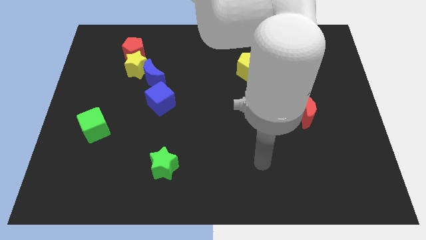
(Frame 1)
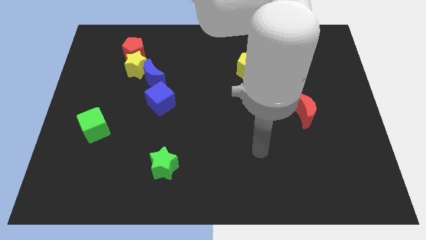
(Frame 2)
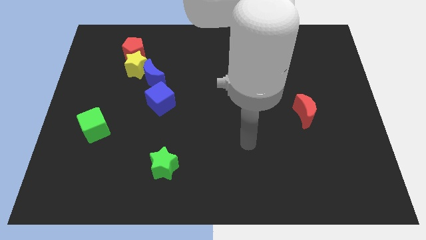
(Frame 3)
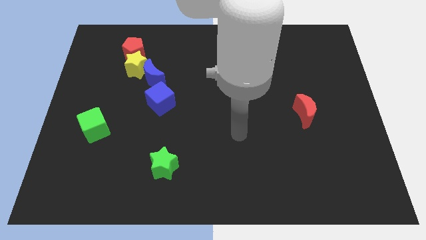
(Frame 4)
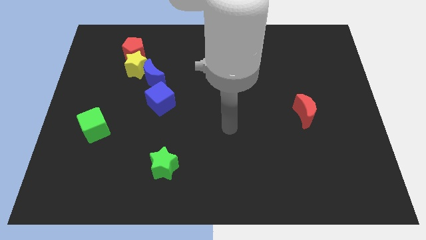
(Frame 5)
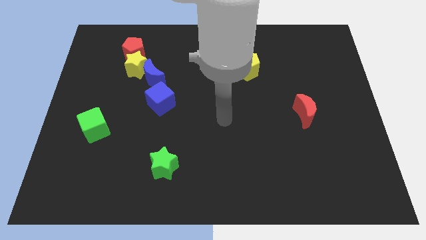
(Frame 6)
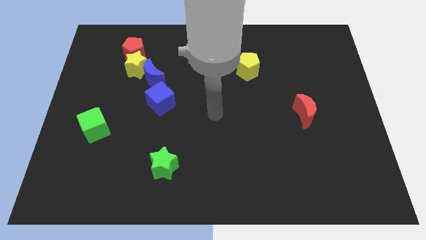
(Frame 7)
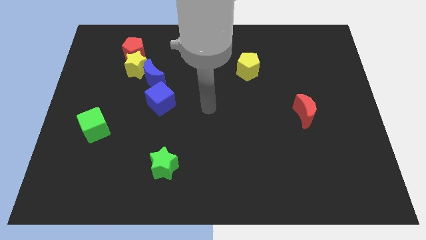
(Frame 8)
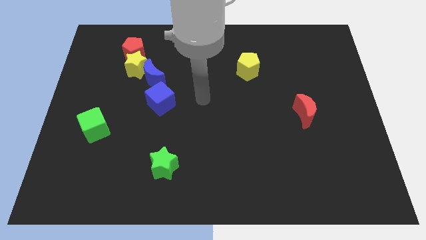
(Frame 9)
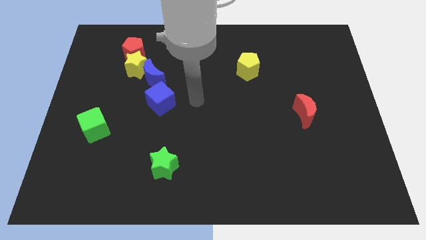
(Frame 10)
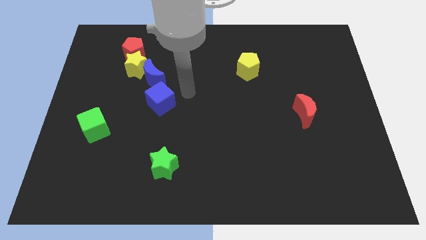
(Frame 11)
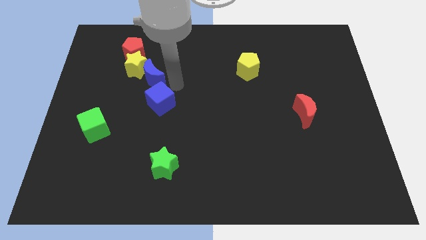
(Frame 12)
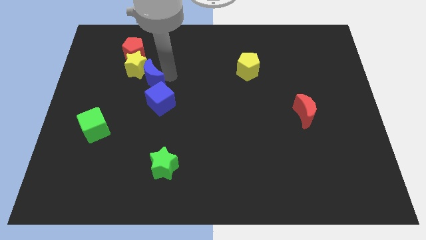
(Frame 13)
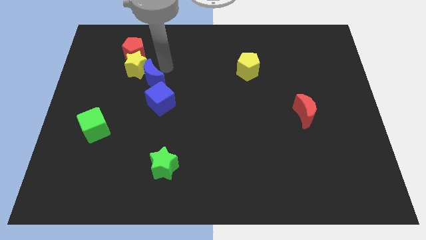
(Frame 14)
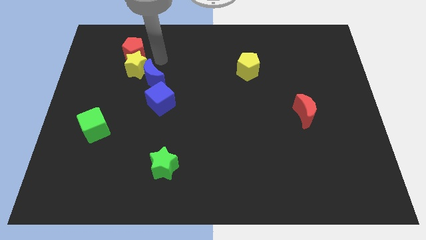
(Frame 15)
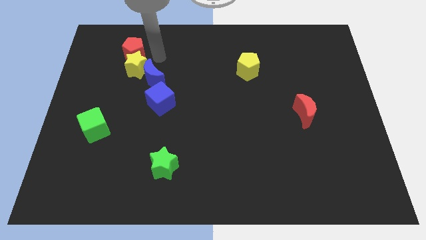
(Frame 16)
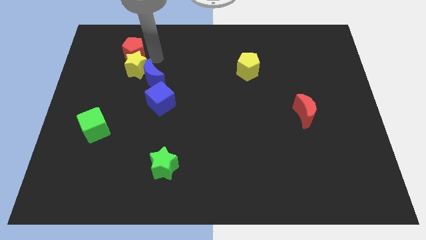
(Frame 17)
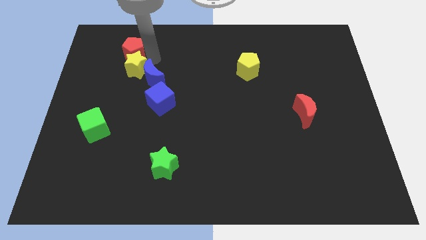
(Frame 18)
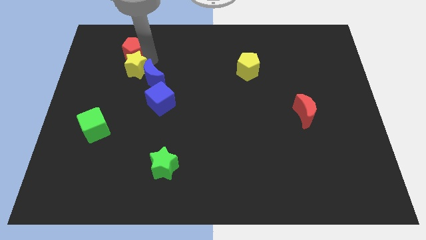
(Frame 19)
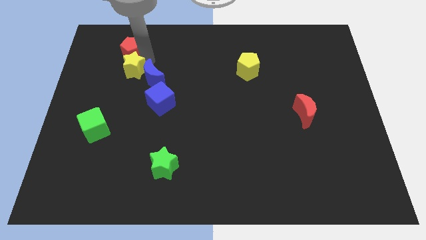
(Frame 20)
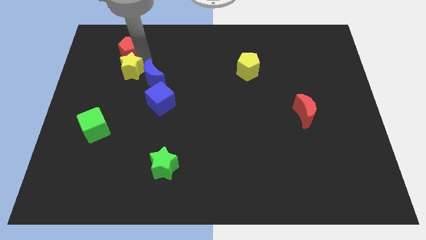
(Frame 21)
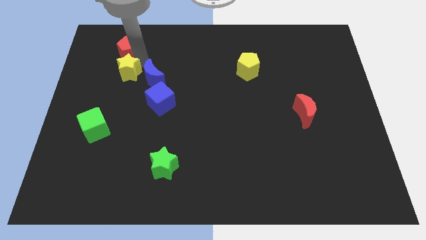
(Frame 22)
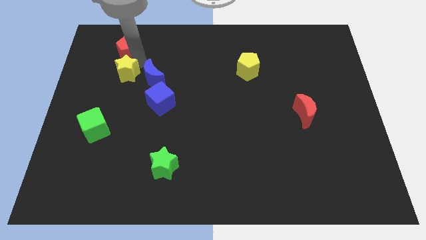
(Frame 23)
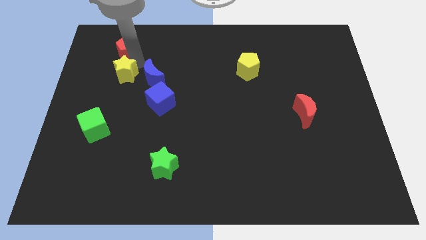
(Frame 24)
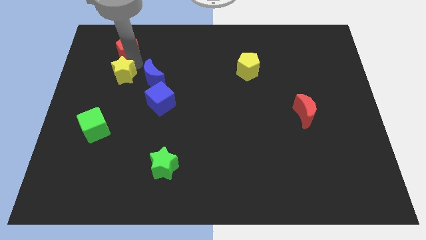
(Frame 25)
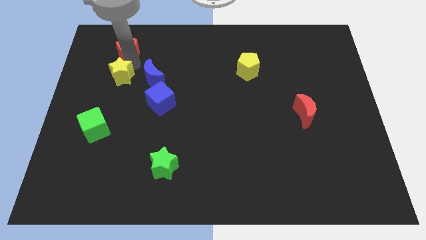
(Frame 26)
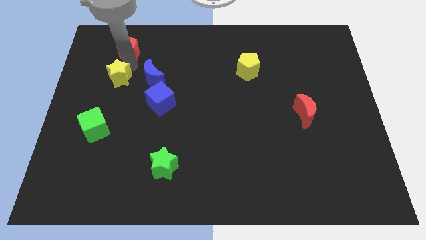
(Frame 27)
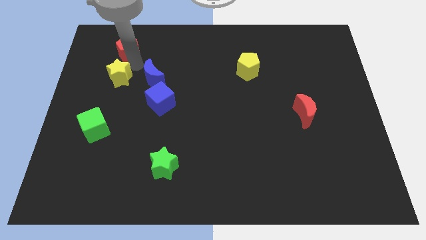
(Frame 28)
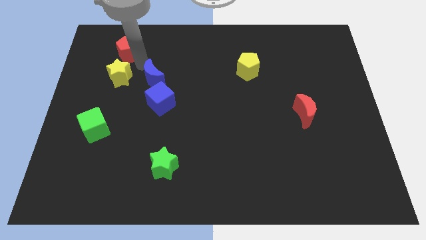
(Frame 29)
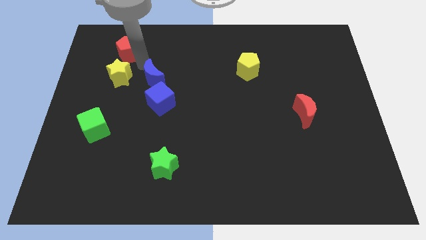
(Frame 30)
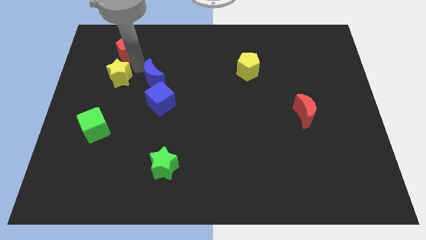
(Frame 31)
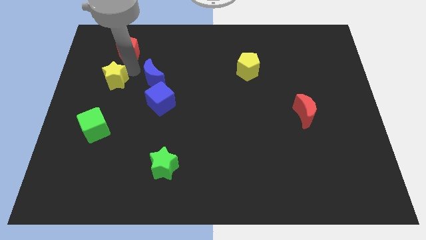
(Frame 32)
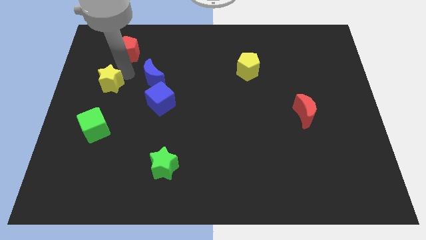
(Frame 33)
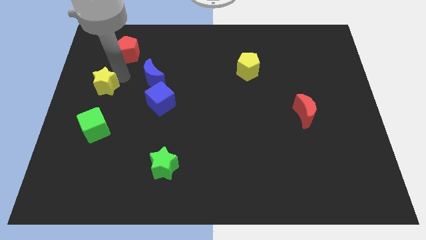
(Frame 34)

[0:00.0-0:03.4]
separate the yellow star from the blue moon and red pentagon

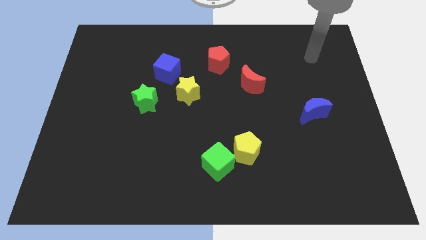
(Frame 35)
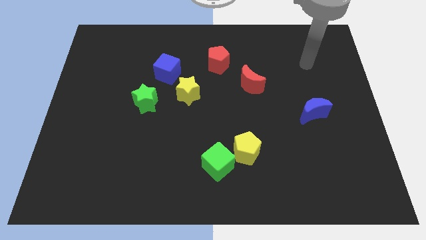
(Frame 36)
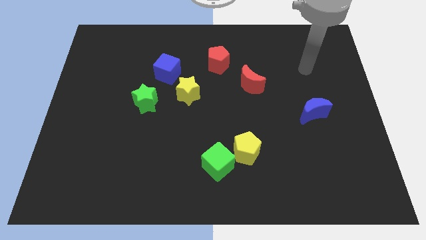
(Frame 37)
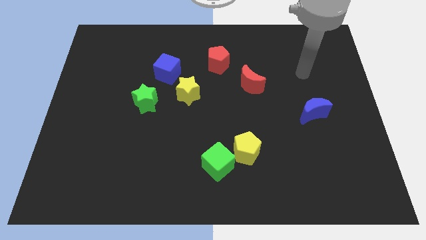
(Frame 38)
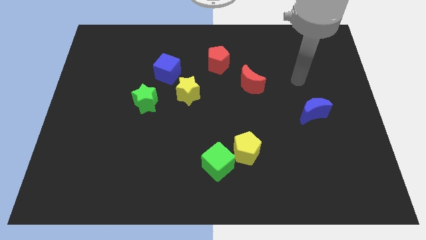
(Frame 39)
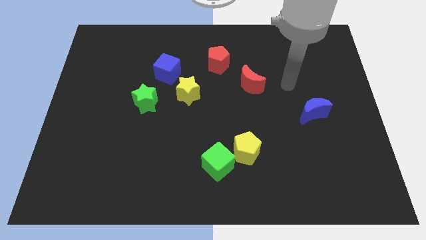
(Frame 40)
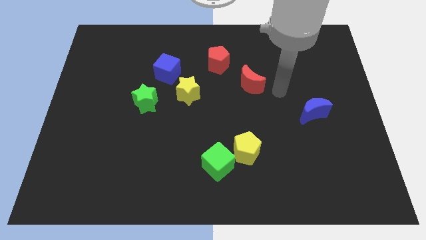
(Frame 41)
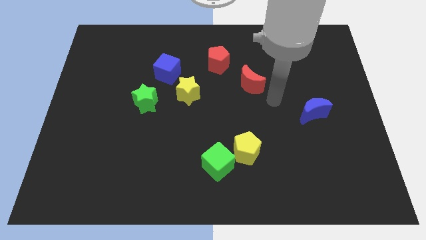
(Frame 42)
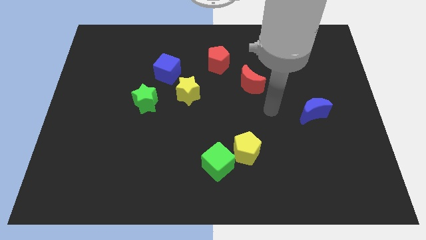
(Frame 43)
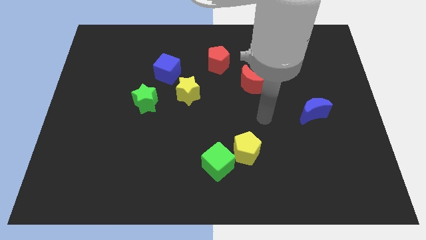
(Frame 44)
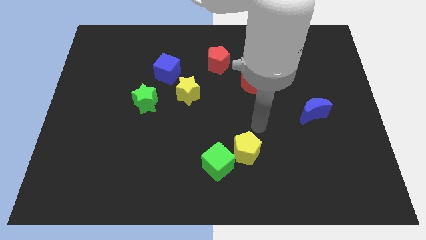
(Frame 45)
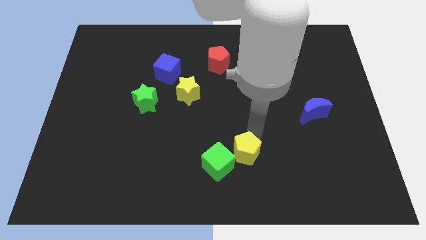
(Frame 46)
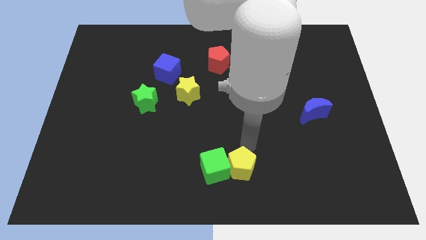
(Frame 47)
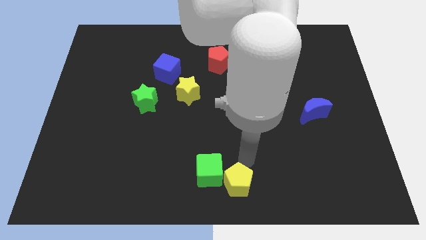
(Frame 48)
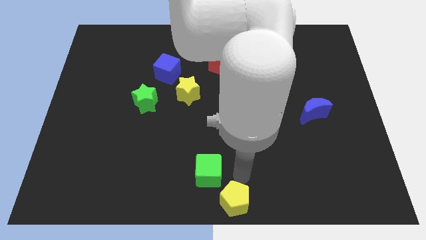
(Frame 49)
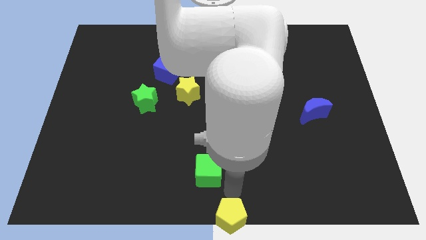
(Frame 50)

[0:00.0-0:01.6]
separate the green cube from the yellow pentagon

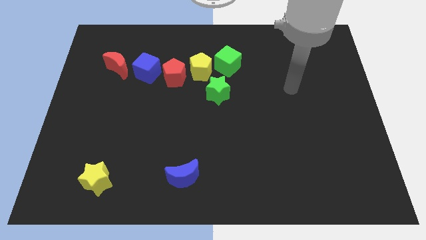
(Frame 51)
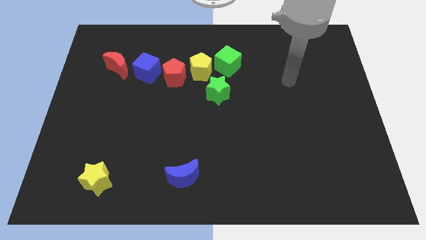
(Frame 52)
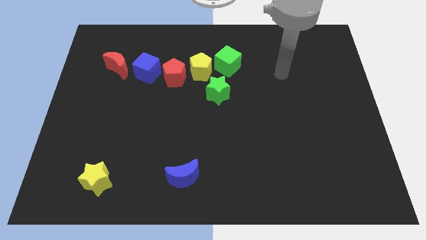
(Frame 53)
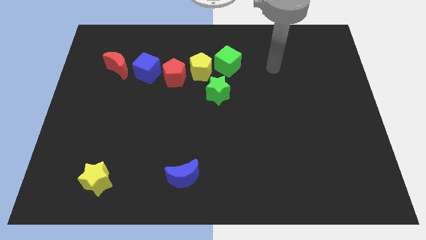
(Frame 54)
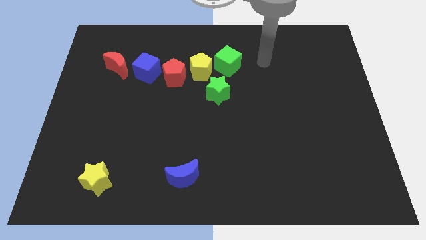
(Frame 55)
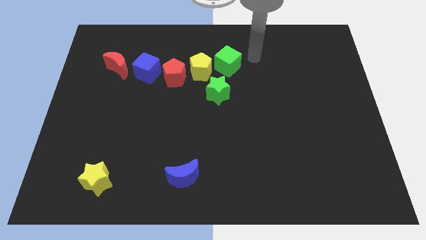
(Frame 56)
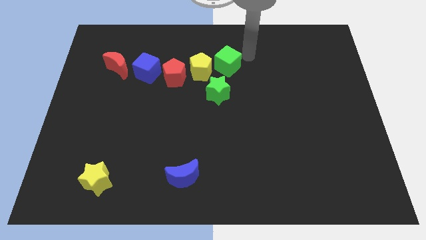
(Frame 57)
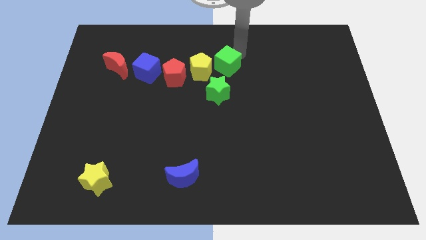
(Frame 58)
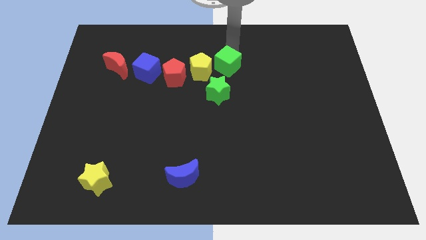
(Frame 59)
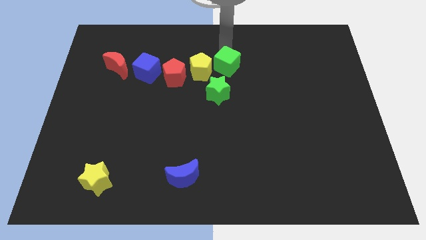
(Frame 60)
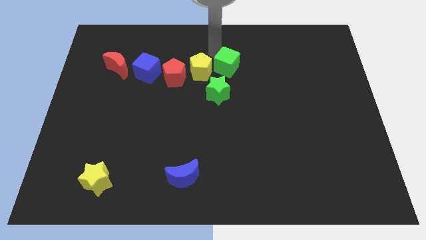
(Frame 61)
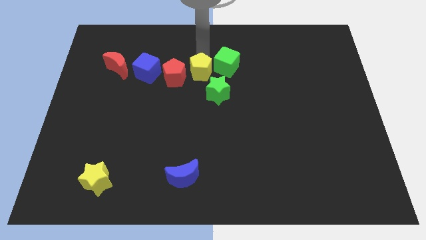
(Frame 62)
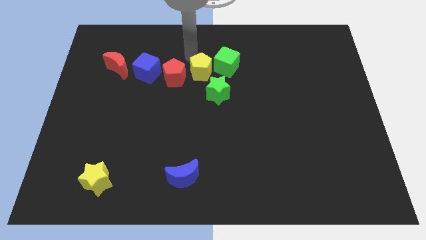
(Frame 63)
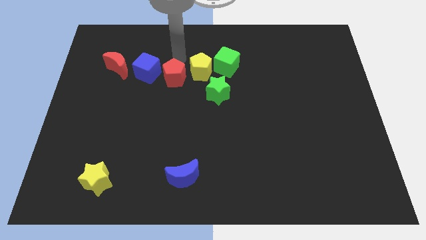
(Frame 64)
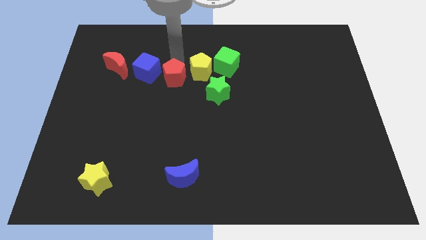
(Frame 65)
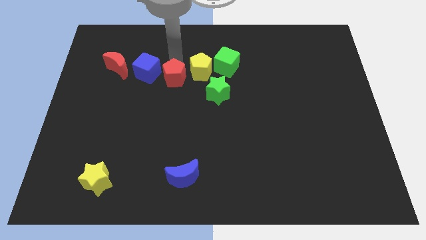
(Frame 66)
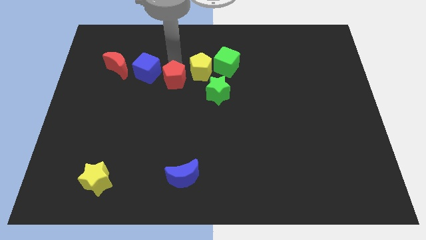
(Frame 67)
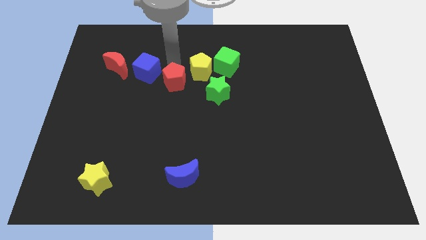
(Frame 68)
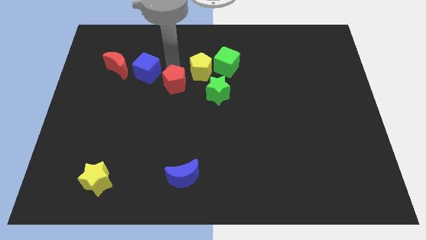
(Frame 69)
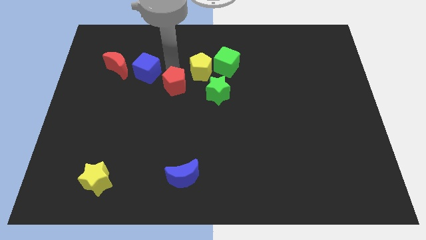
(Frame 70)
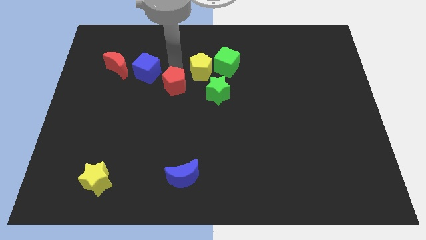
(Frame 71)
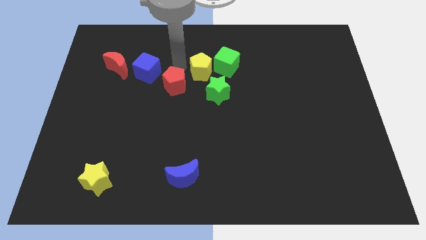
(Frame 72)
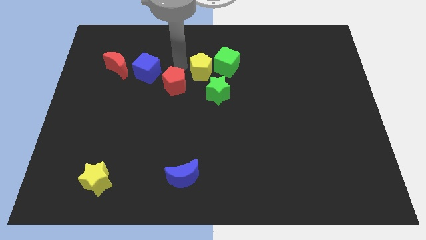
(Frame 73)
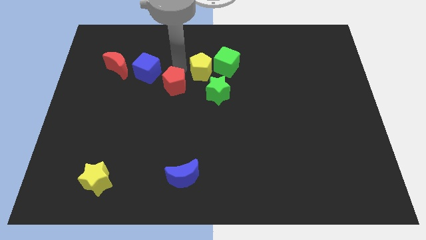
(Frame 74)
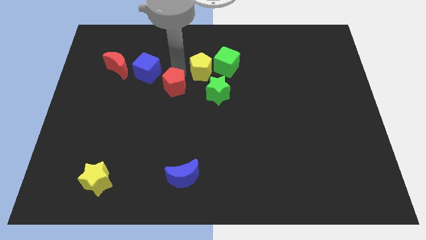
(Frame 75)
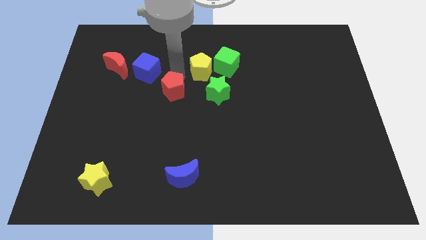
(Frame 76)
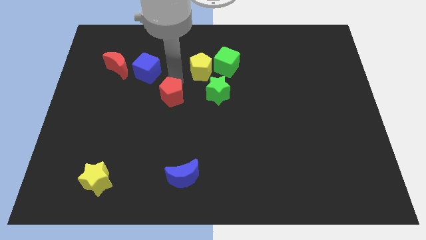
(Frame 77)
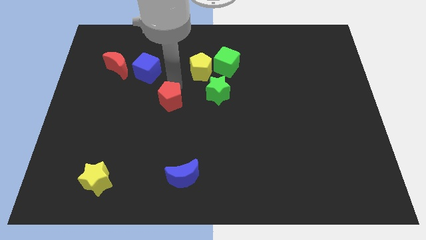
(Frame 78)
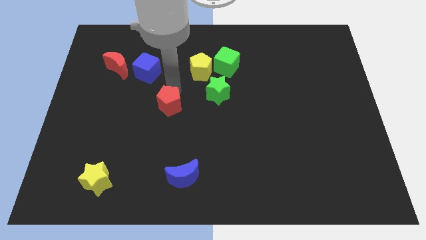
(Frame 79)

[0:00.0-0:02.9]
separate the red pentagon from the yellow pentagon and blue cube

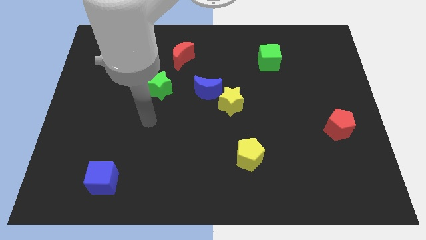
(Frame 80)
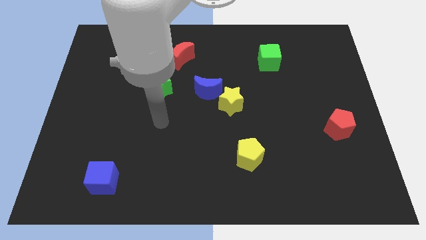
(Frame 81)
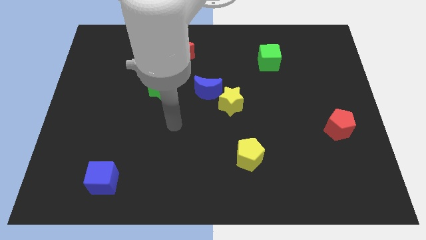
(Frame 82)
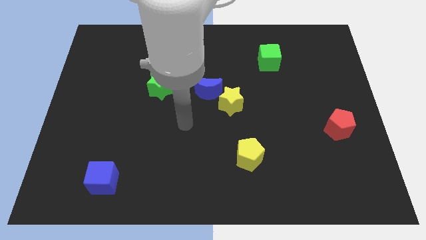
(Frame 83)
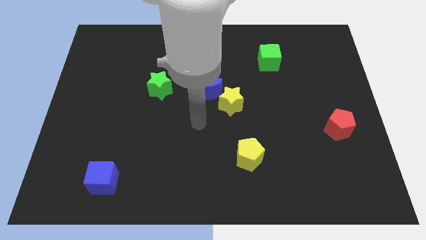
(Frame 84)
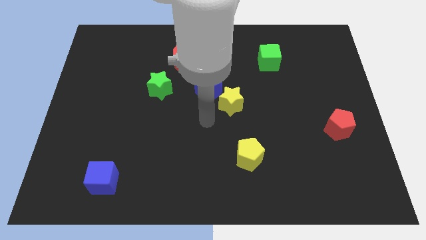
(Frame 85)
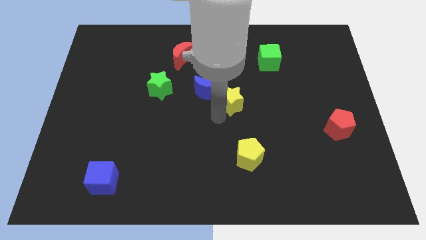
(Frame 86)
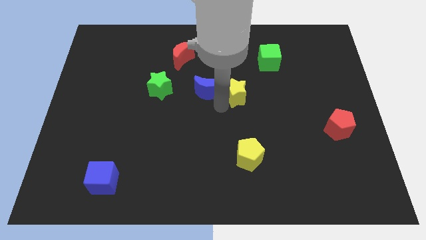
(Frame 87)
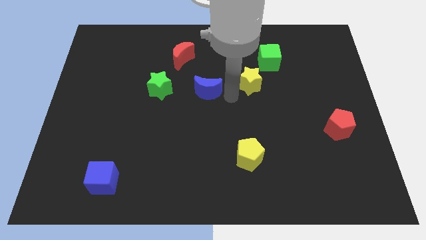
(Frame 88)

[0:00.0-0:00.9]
separate the blue moon from the yellow star

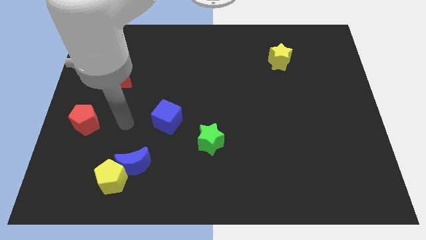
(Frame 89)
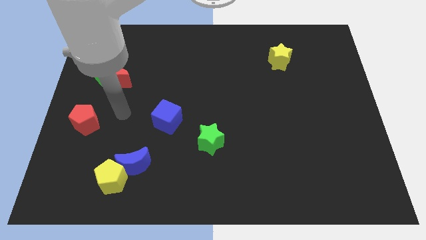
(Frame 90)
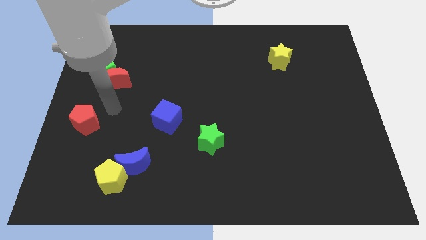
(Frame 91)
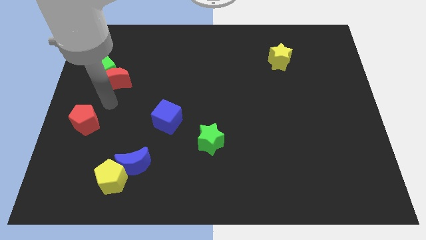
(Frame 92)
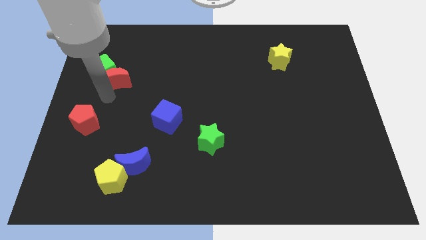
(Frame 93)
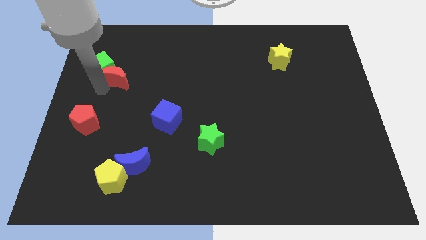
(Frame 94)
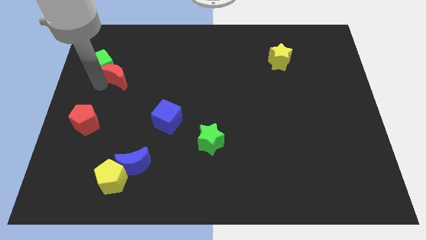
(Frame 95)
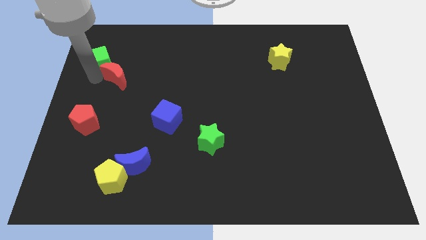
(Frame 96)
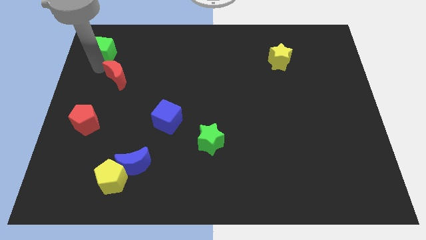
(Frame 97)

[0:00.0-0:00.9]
separate the red moon from the green cube
